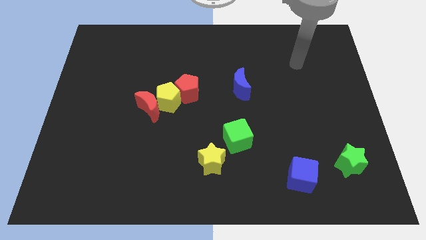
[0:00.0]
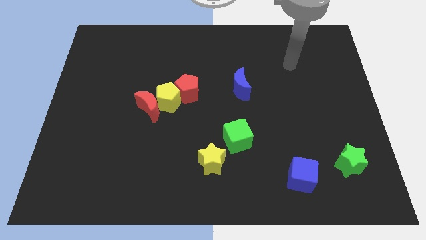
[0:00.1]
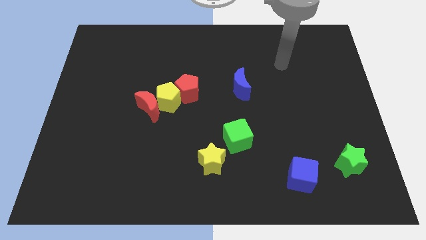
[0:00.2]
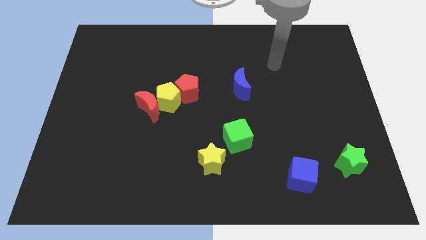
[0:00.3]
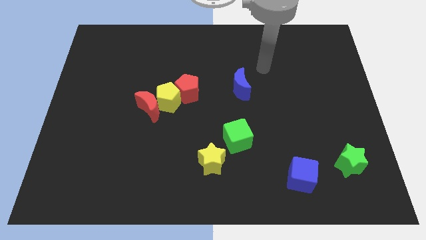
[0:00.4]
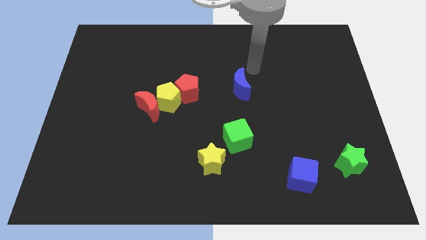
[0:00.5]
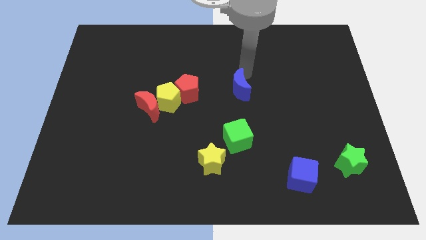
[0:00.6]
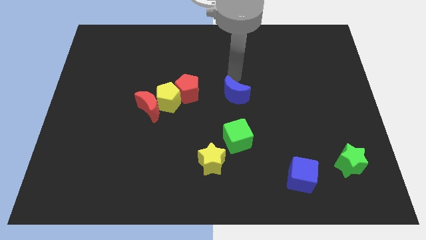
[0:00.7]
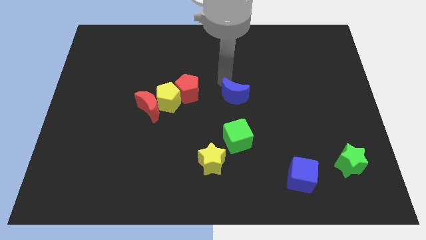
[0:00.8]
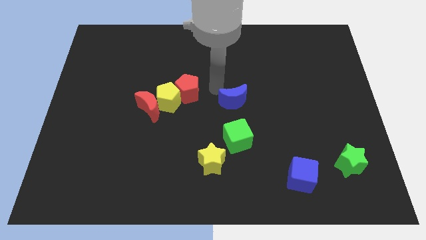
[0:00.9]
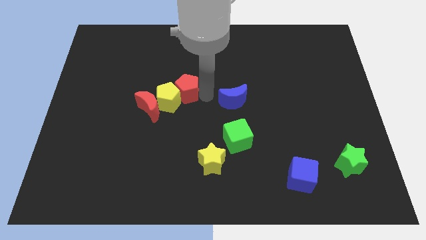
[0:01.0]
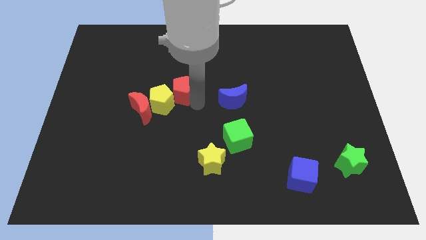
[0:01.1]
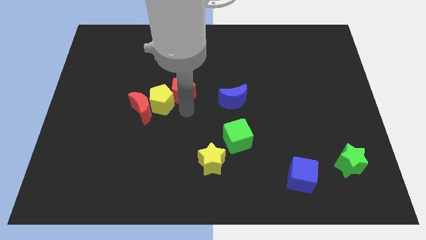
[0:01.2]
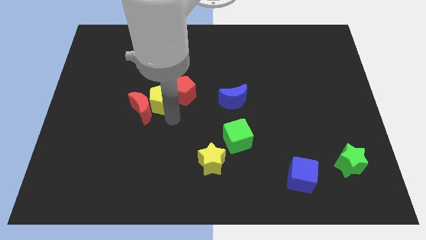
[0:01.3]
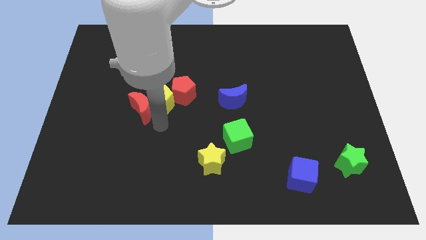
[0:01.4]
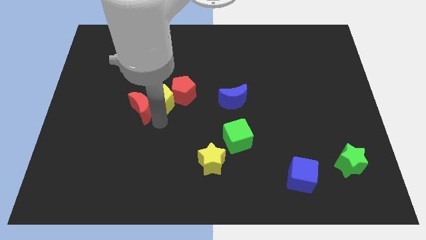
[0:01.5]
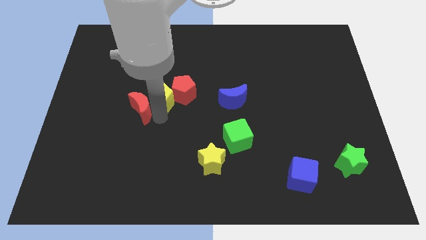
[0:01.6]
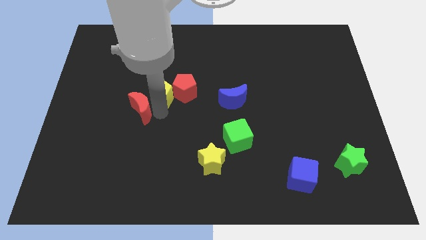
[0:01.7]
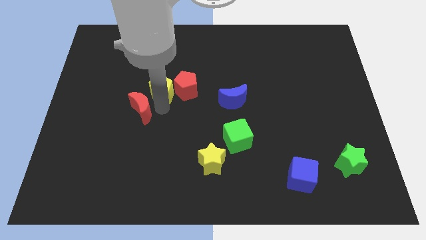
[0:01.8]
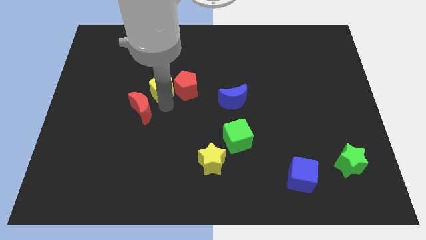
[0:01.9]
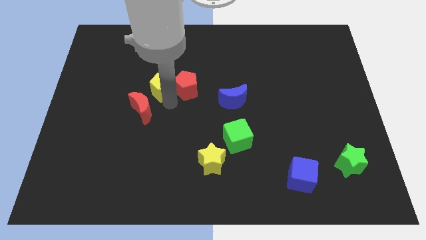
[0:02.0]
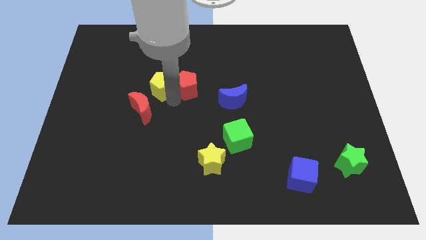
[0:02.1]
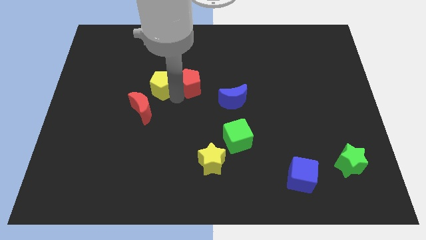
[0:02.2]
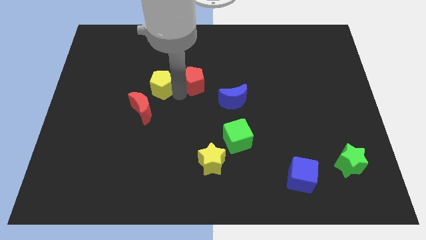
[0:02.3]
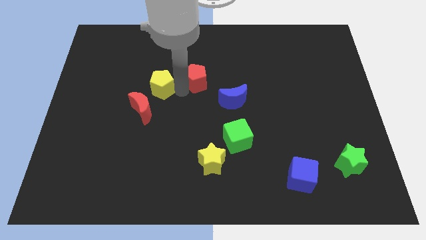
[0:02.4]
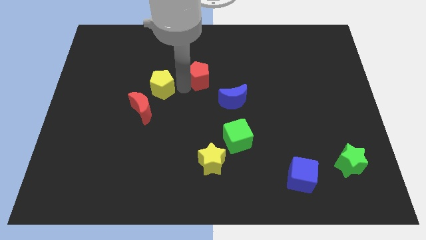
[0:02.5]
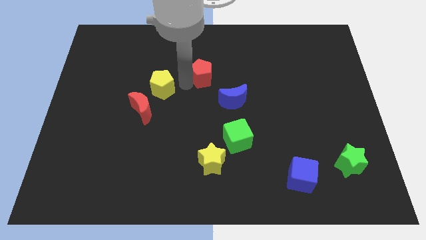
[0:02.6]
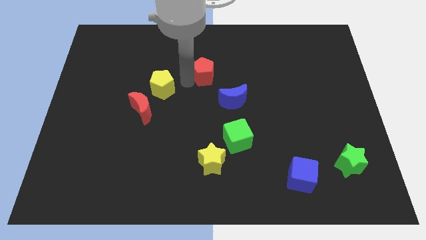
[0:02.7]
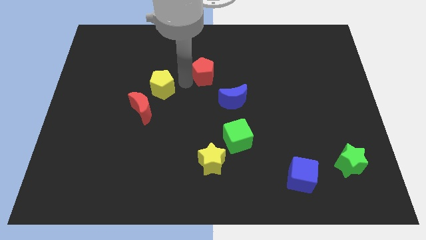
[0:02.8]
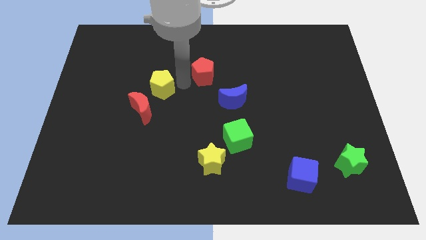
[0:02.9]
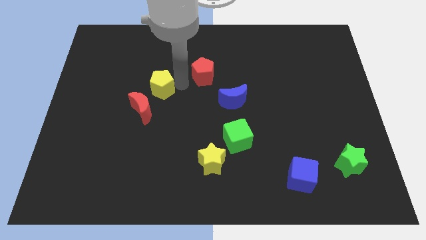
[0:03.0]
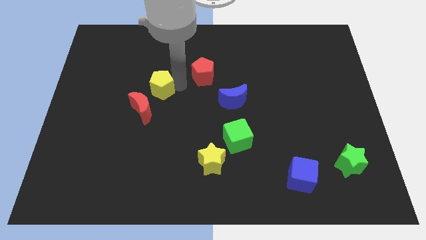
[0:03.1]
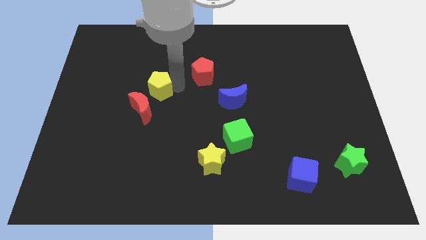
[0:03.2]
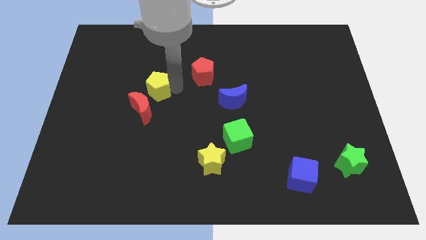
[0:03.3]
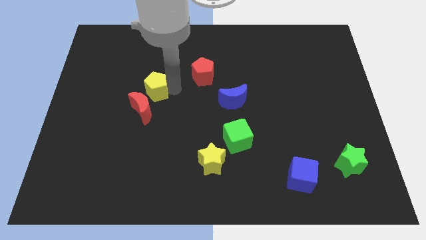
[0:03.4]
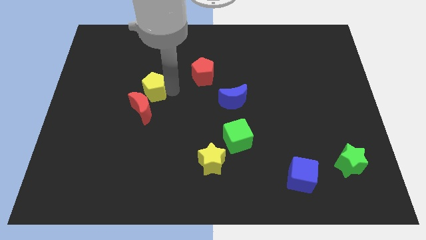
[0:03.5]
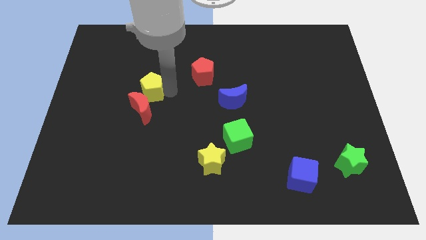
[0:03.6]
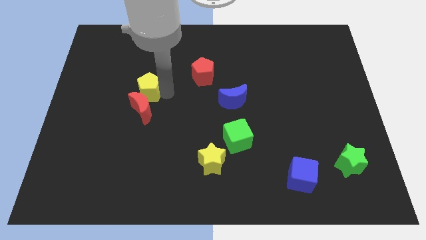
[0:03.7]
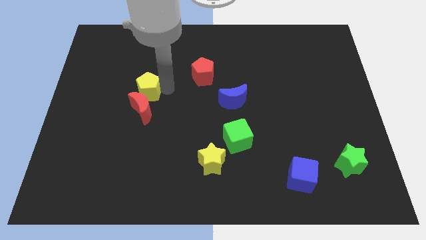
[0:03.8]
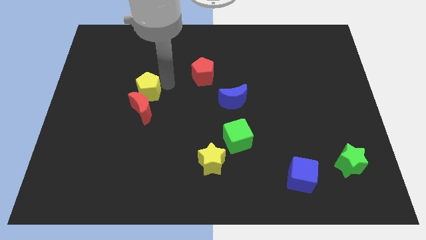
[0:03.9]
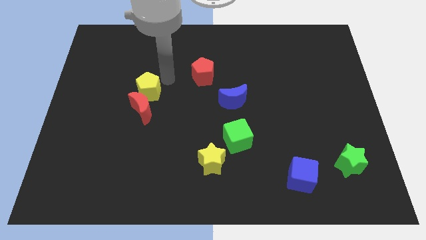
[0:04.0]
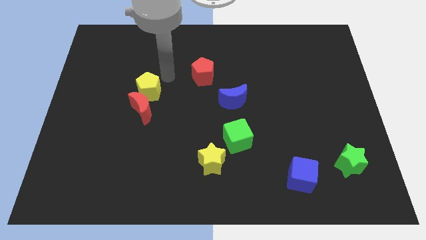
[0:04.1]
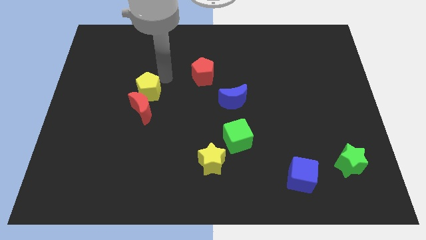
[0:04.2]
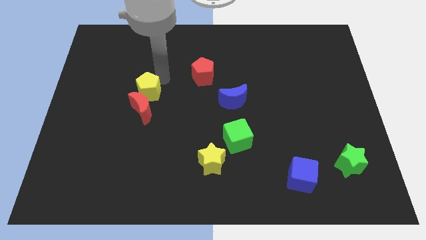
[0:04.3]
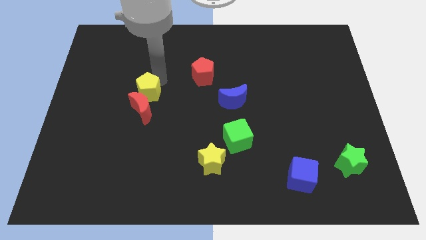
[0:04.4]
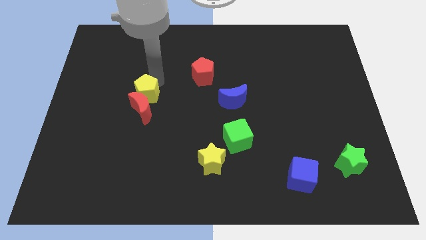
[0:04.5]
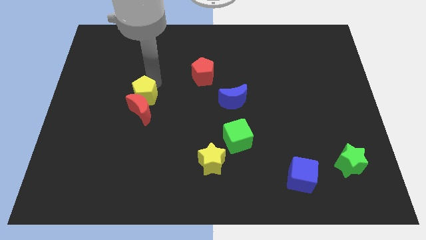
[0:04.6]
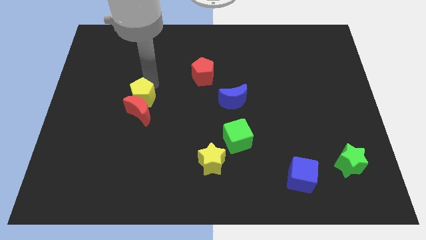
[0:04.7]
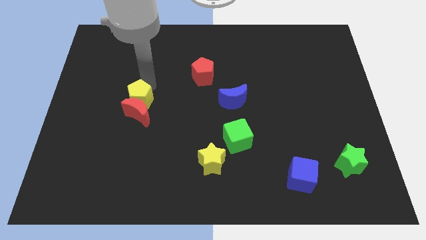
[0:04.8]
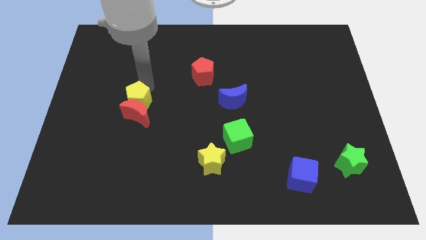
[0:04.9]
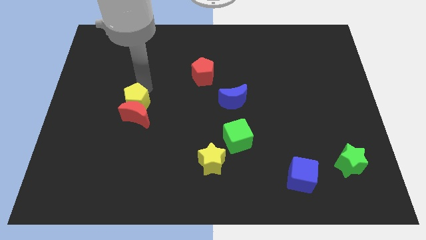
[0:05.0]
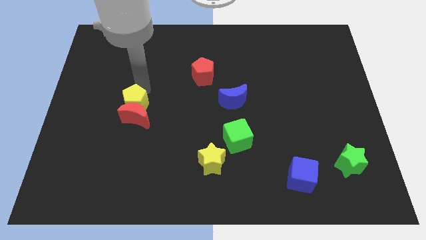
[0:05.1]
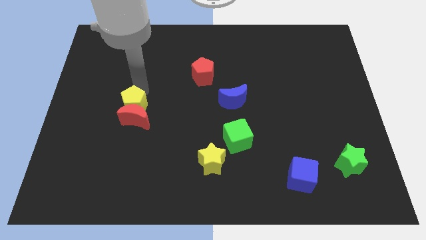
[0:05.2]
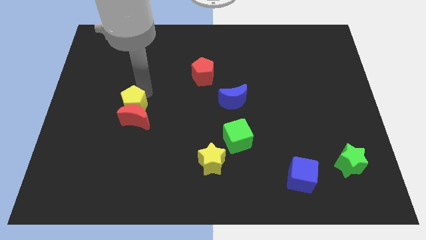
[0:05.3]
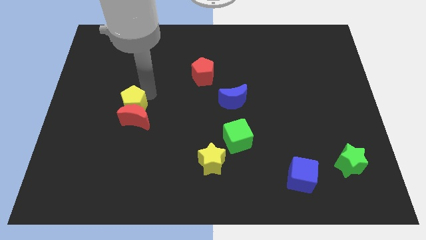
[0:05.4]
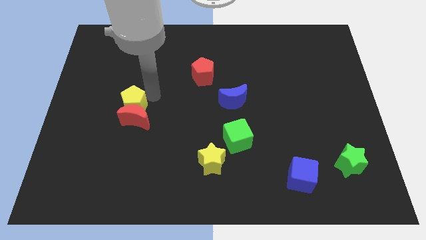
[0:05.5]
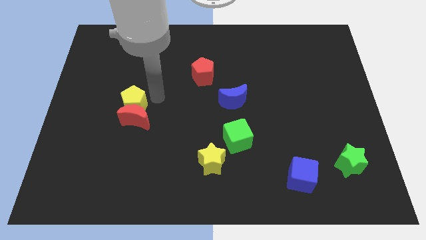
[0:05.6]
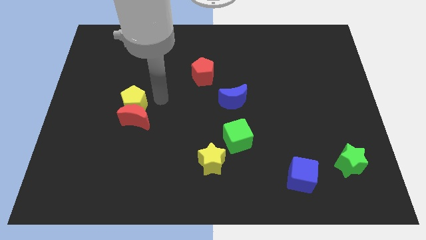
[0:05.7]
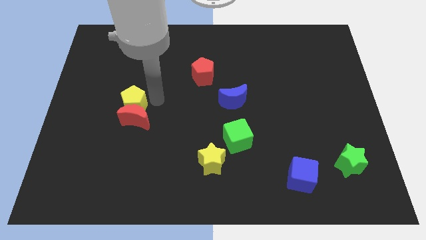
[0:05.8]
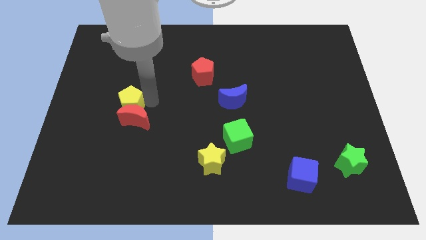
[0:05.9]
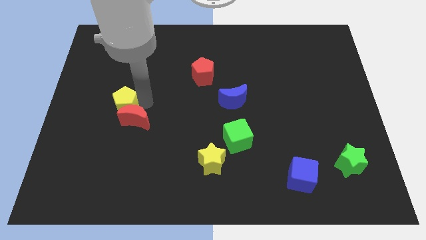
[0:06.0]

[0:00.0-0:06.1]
separate the yellow pentagon from the red moon and red pentagon

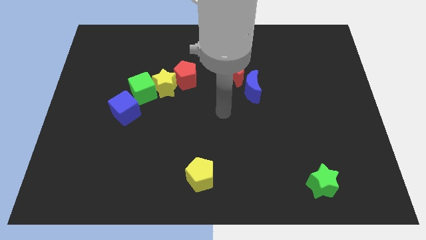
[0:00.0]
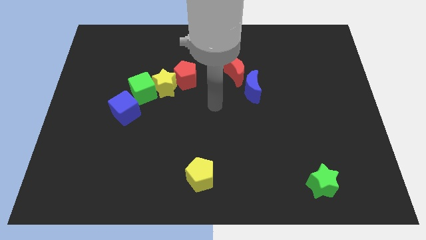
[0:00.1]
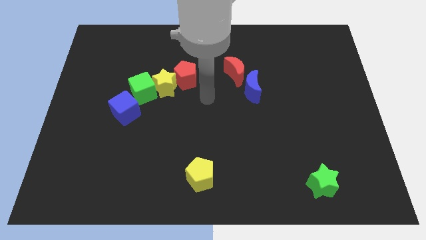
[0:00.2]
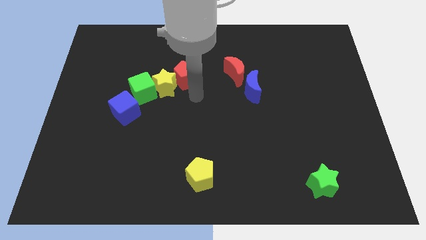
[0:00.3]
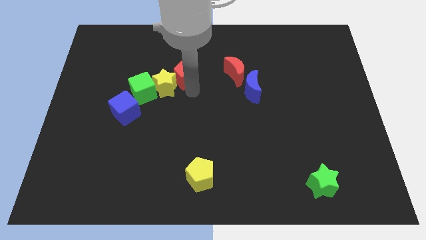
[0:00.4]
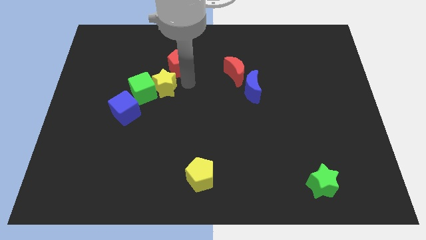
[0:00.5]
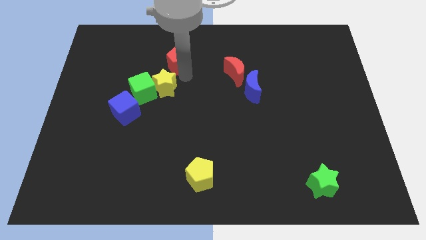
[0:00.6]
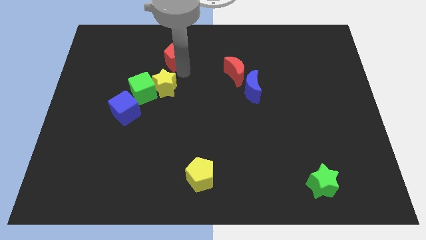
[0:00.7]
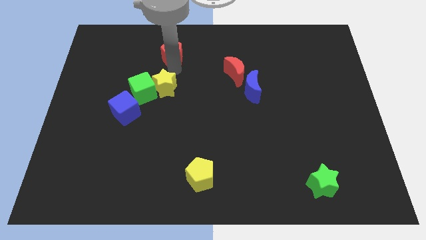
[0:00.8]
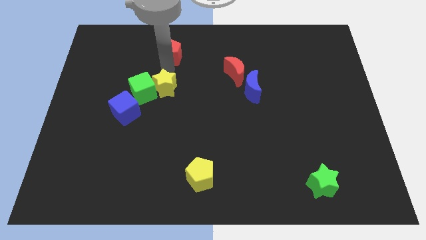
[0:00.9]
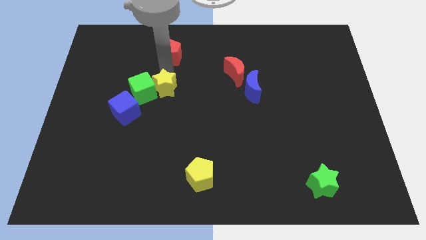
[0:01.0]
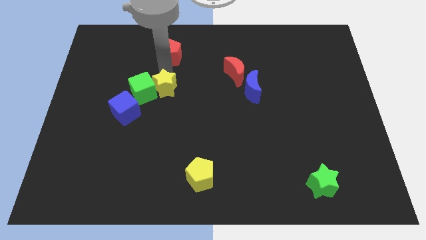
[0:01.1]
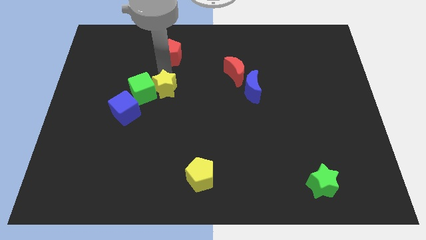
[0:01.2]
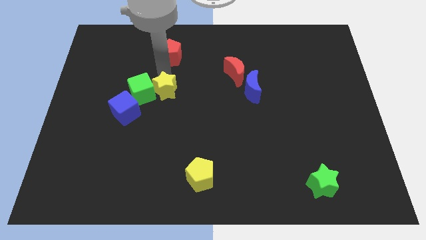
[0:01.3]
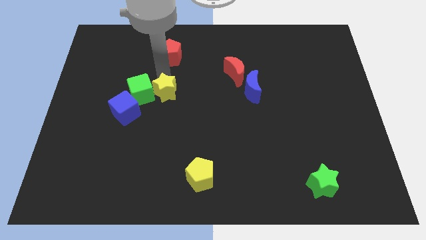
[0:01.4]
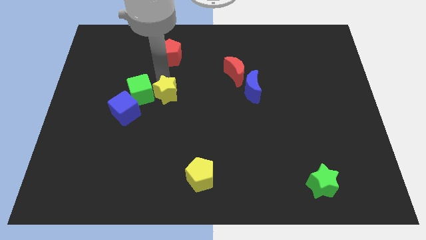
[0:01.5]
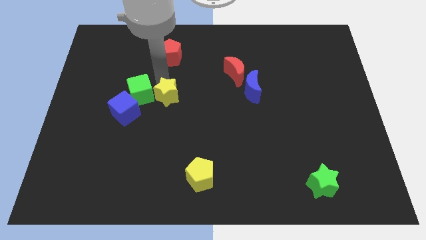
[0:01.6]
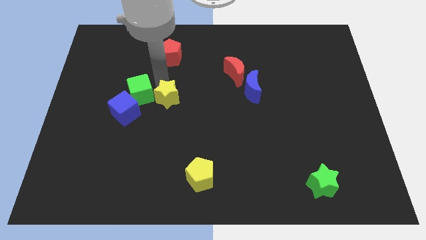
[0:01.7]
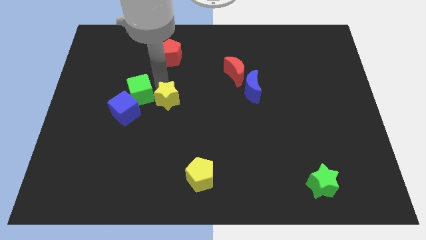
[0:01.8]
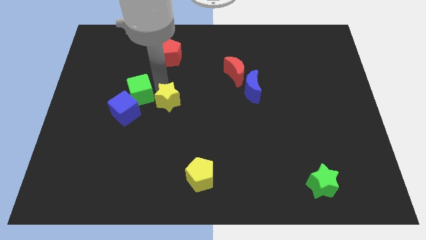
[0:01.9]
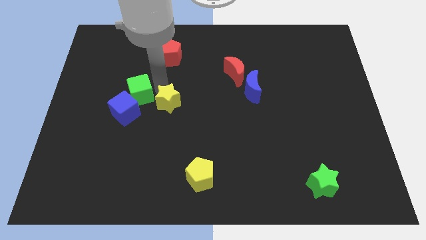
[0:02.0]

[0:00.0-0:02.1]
separate the yellow star from the green cube and red pentagon

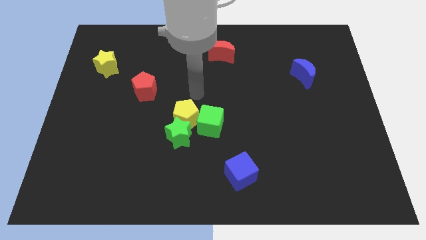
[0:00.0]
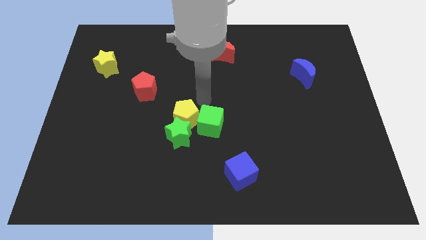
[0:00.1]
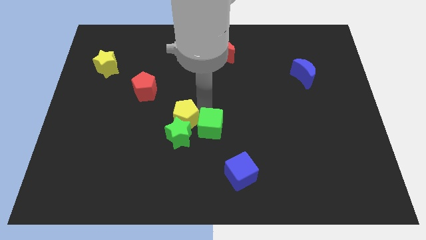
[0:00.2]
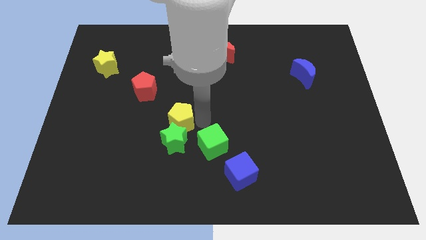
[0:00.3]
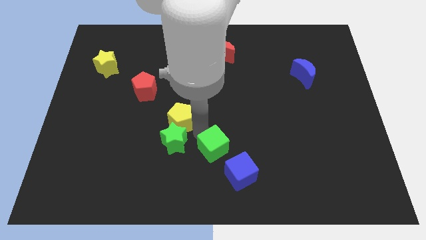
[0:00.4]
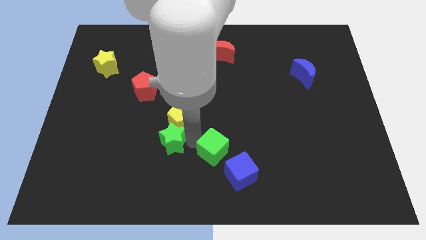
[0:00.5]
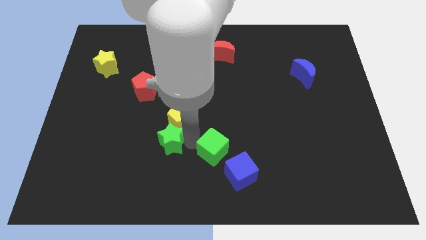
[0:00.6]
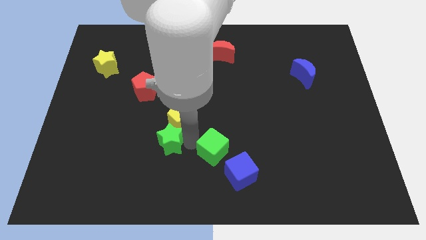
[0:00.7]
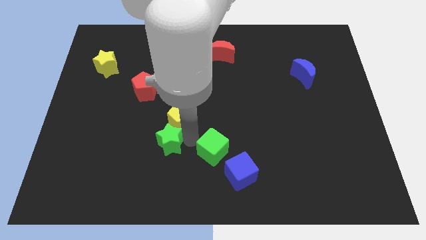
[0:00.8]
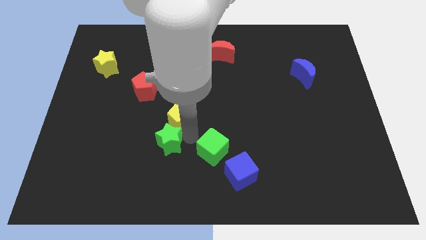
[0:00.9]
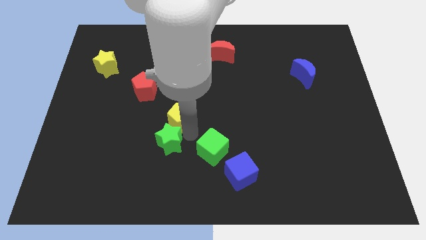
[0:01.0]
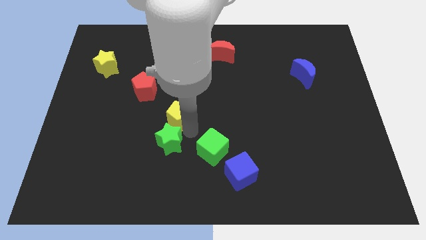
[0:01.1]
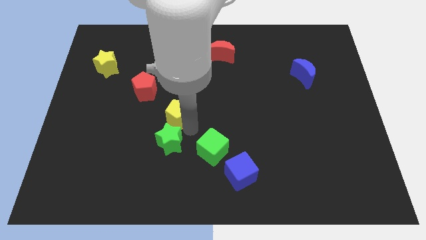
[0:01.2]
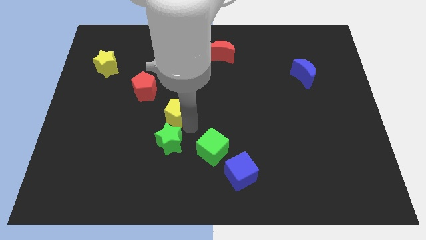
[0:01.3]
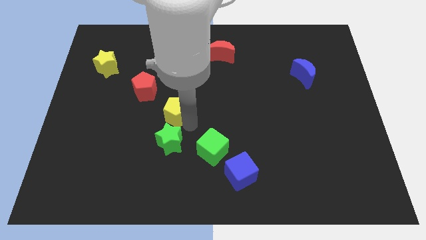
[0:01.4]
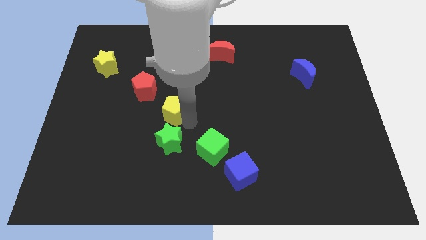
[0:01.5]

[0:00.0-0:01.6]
separate the yellow pentagon from the green star and green cube
